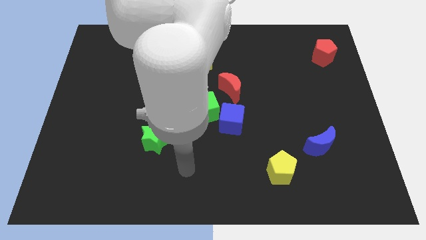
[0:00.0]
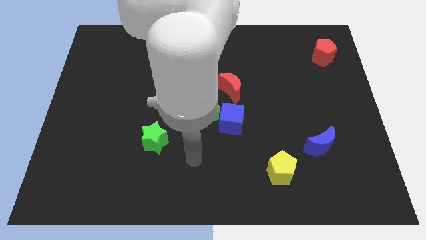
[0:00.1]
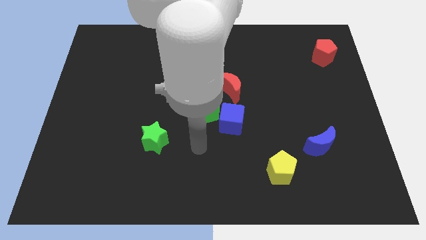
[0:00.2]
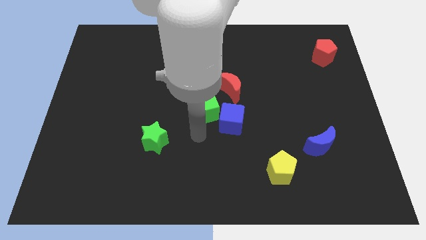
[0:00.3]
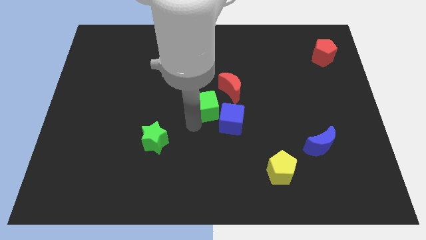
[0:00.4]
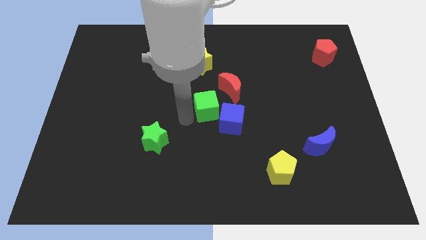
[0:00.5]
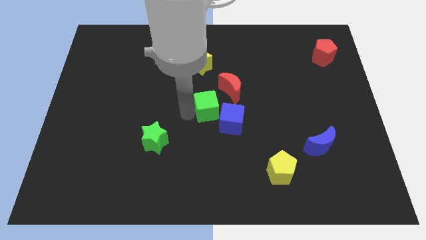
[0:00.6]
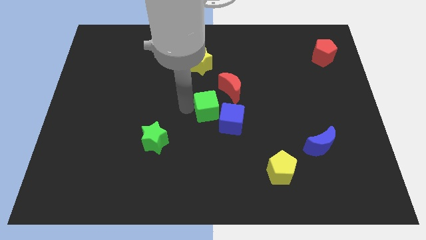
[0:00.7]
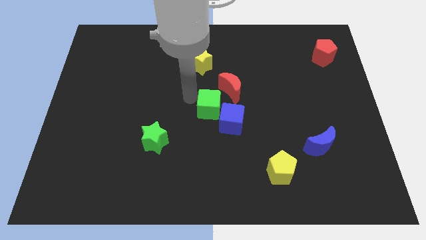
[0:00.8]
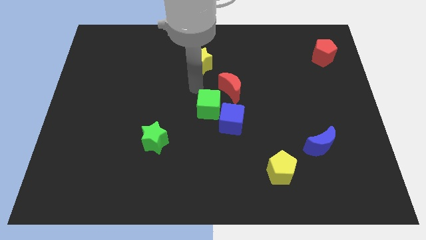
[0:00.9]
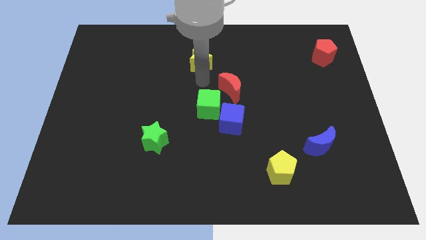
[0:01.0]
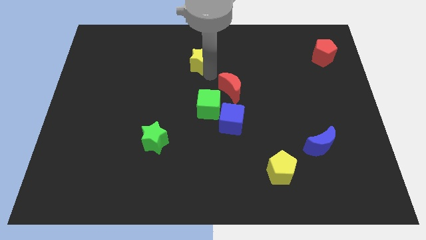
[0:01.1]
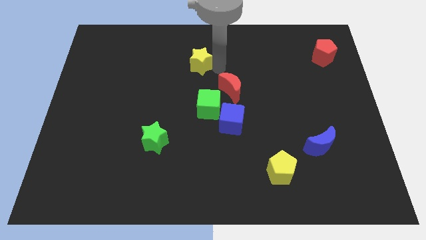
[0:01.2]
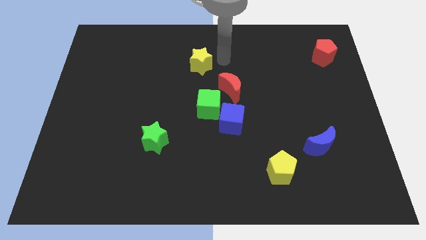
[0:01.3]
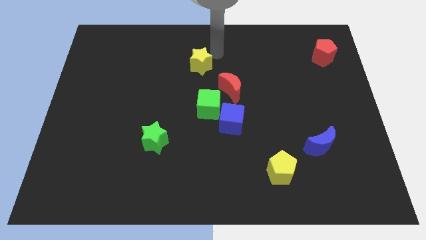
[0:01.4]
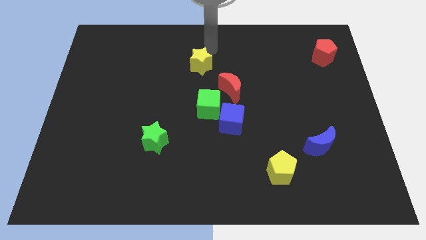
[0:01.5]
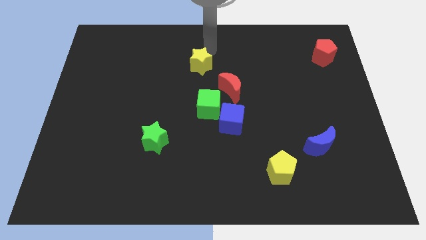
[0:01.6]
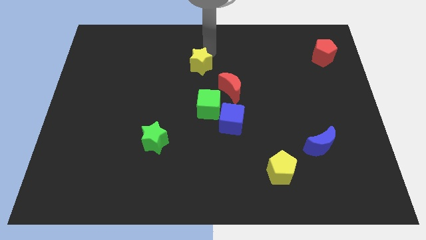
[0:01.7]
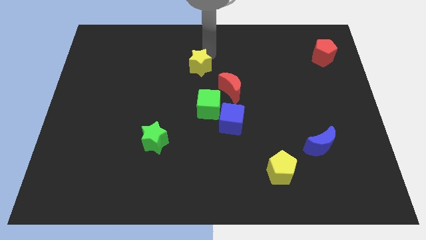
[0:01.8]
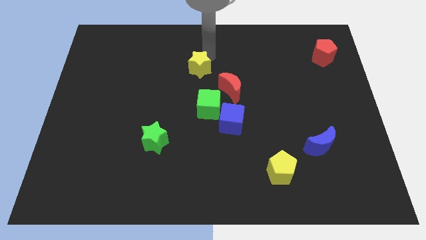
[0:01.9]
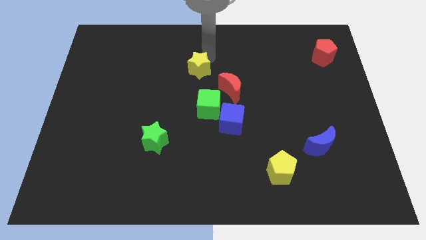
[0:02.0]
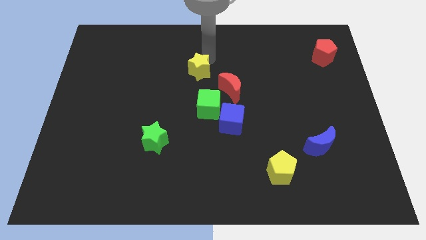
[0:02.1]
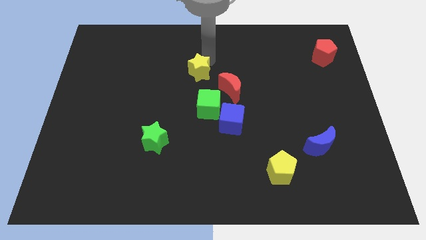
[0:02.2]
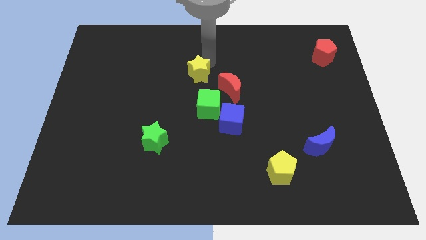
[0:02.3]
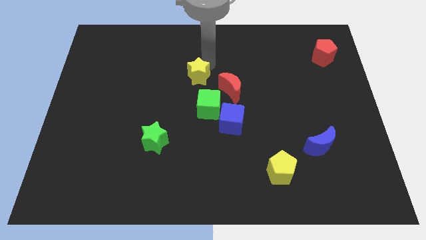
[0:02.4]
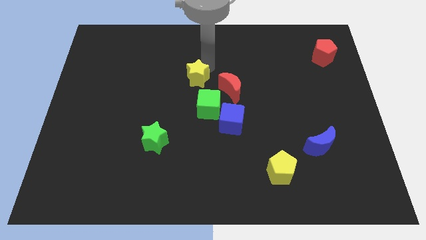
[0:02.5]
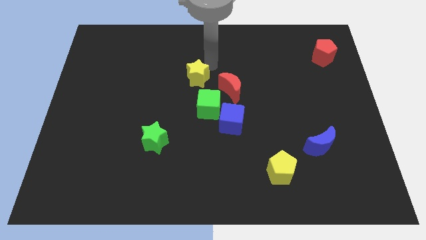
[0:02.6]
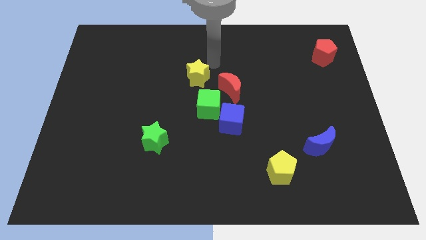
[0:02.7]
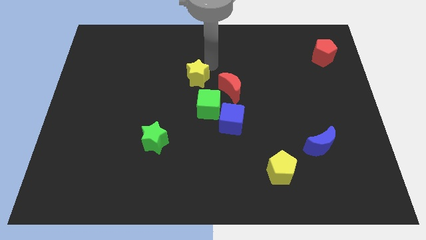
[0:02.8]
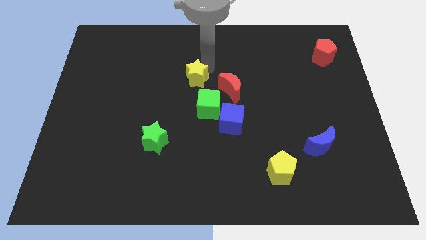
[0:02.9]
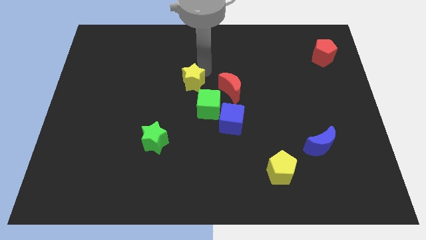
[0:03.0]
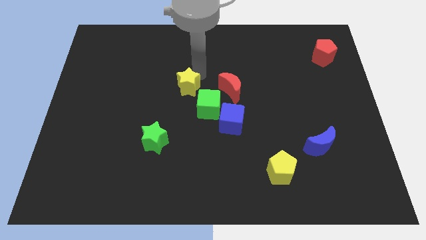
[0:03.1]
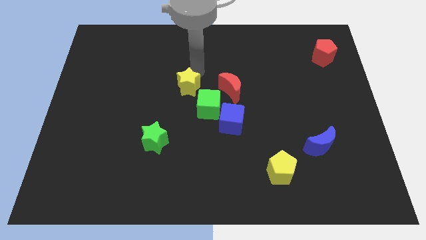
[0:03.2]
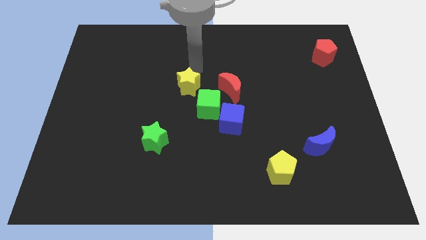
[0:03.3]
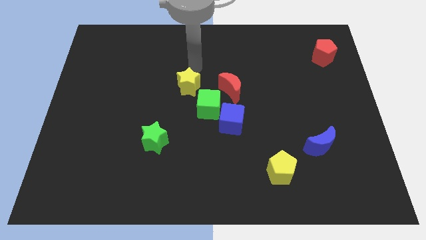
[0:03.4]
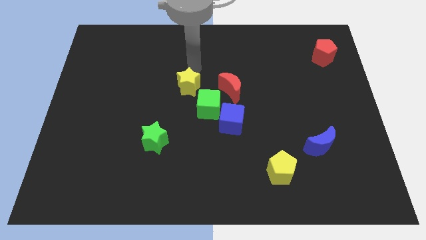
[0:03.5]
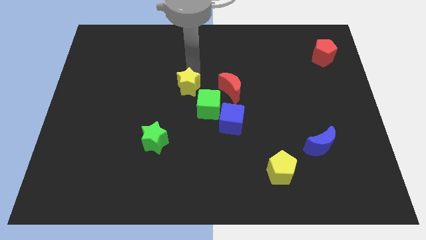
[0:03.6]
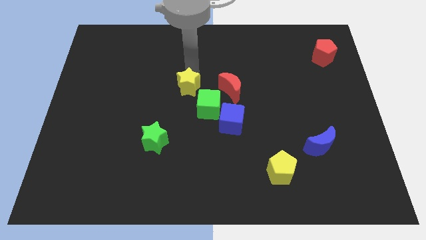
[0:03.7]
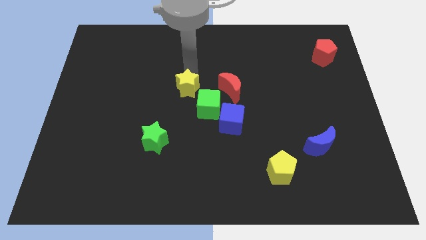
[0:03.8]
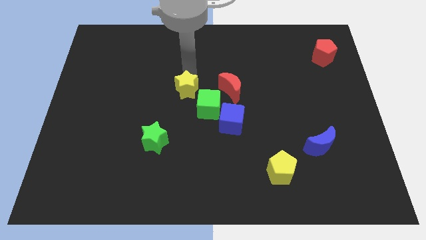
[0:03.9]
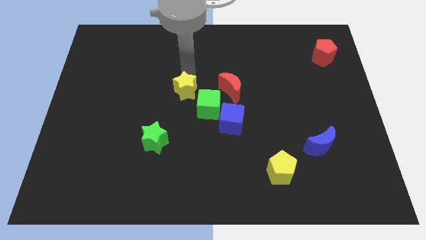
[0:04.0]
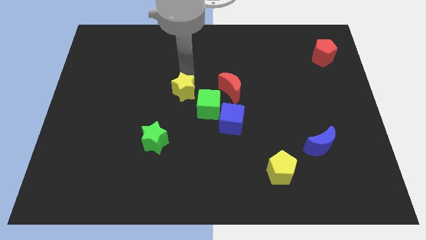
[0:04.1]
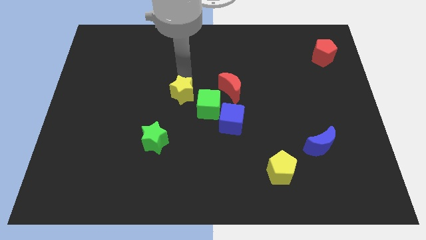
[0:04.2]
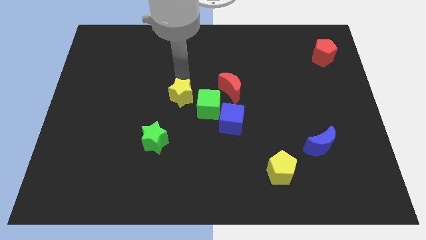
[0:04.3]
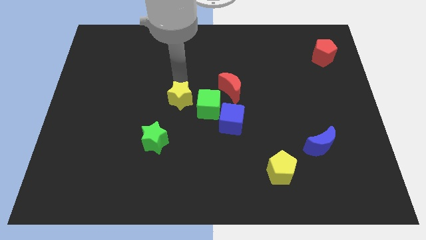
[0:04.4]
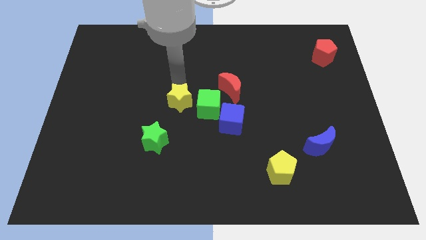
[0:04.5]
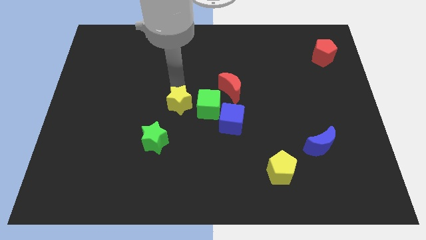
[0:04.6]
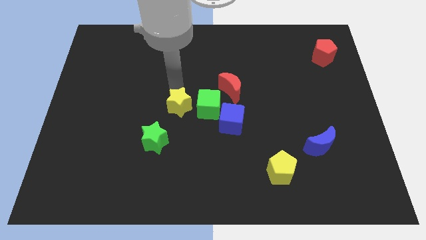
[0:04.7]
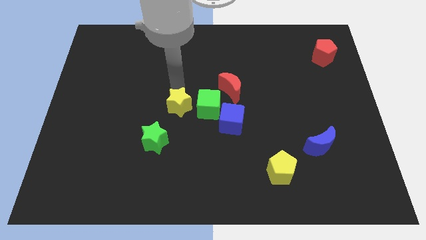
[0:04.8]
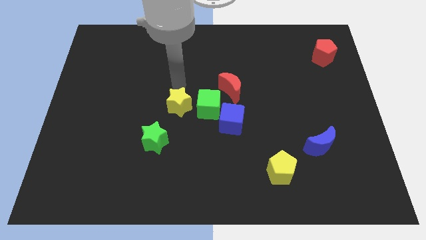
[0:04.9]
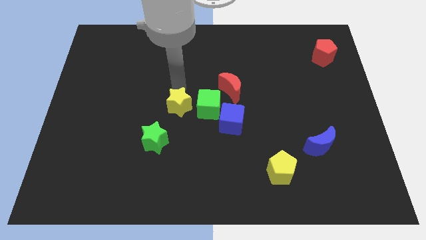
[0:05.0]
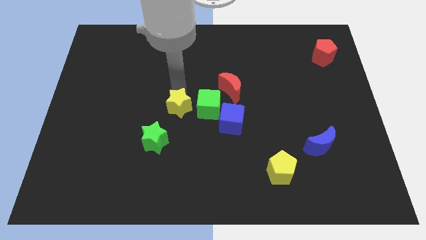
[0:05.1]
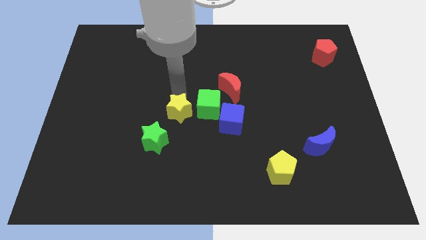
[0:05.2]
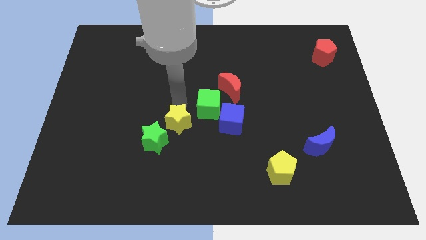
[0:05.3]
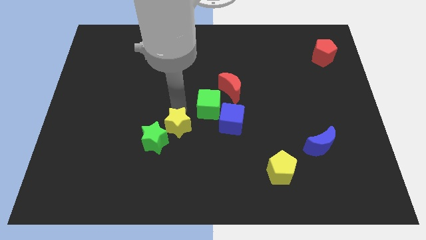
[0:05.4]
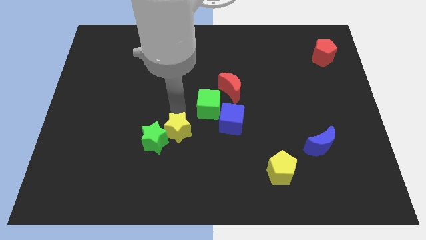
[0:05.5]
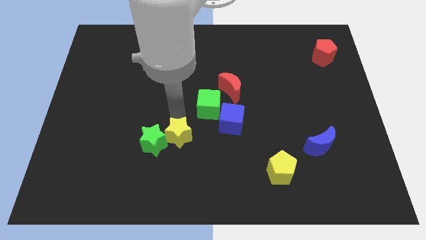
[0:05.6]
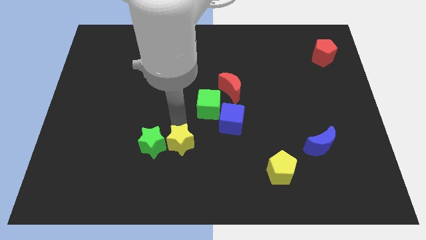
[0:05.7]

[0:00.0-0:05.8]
slide the yellow star to the bottom right of the green star

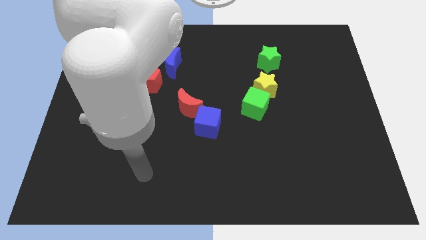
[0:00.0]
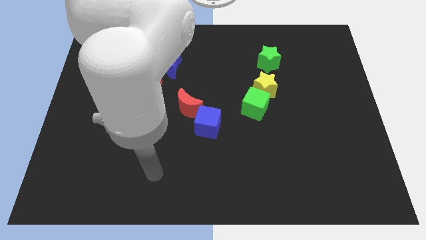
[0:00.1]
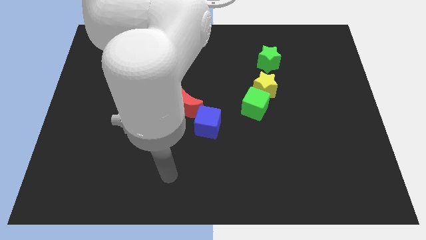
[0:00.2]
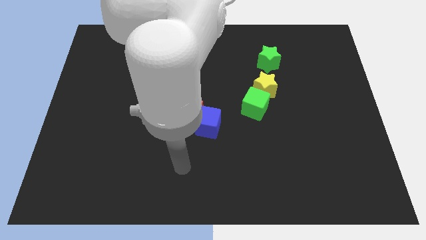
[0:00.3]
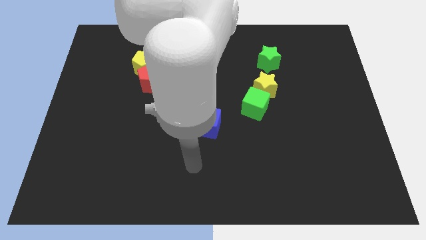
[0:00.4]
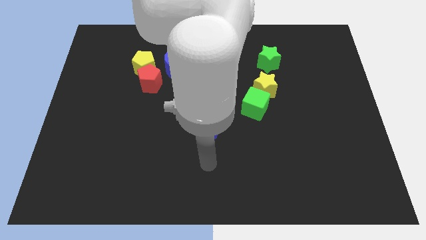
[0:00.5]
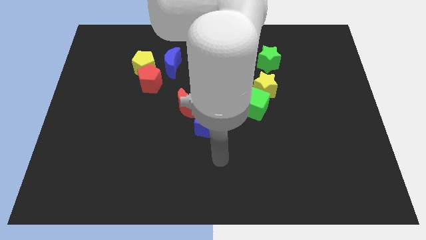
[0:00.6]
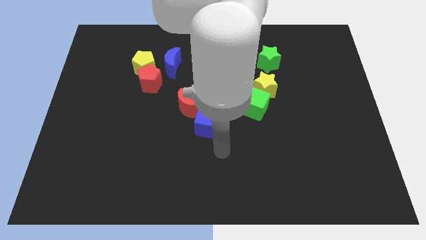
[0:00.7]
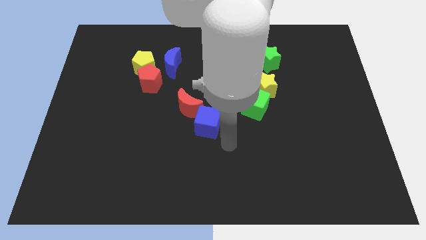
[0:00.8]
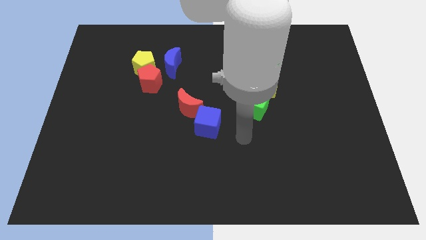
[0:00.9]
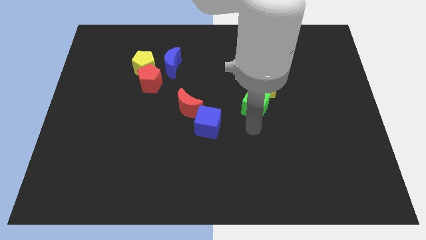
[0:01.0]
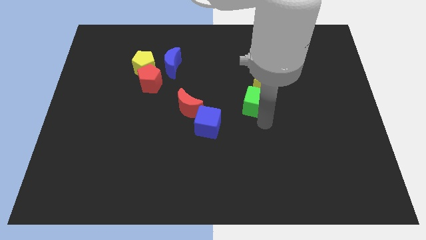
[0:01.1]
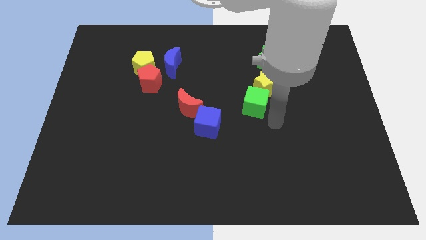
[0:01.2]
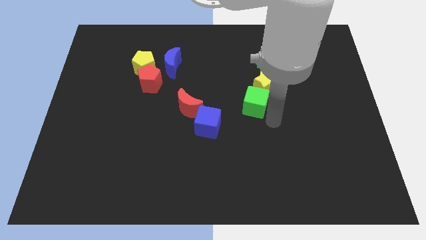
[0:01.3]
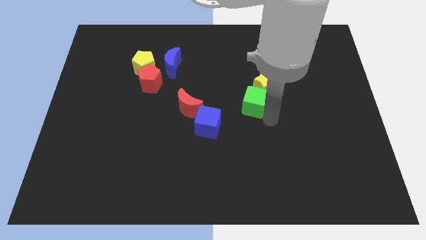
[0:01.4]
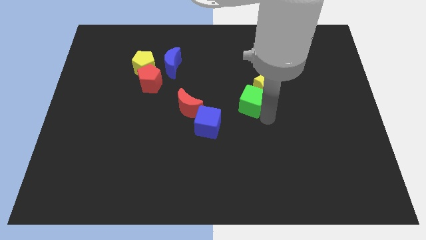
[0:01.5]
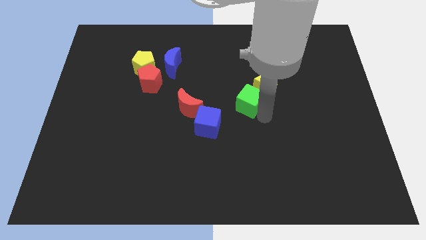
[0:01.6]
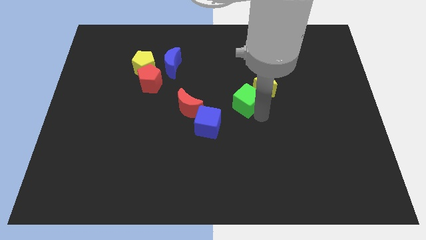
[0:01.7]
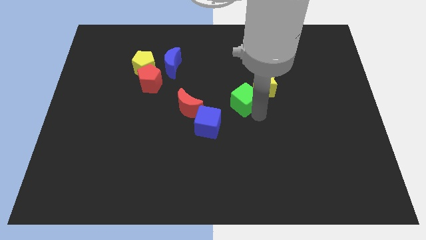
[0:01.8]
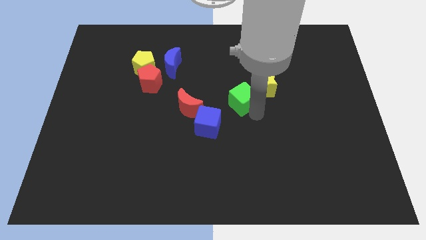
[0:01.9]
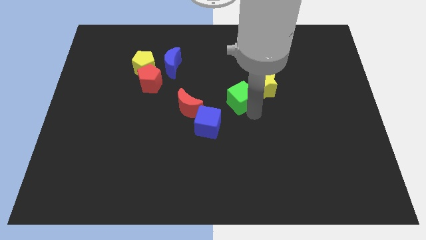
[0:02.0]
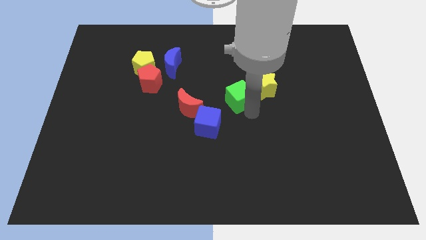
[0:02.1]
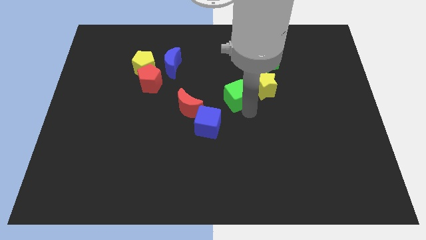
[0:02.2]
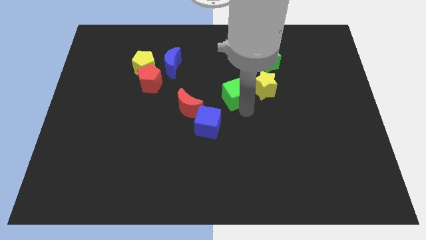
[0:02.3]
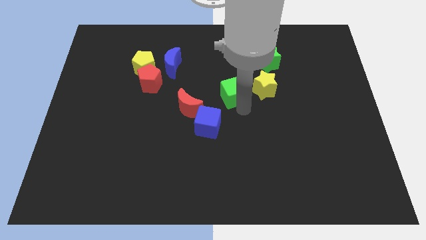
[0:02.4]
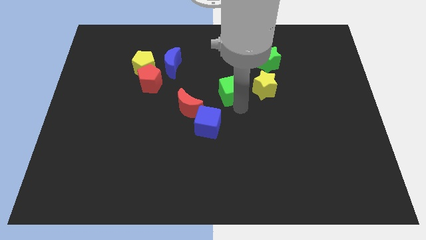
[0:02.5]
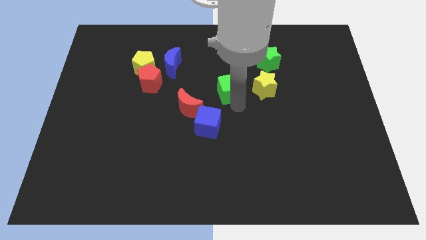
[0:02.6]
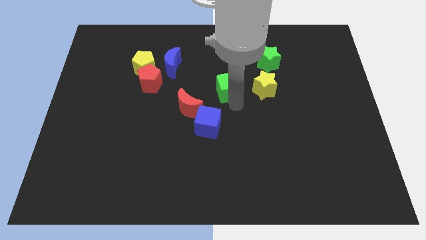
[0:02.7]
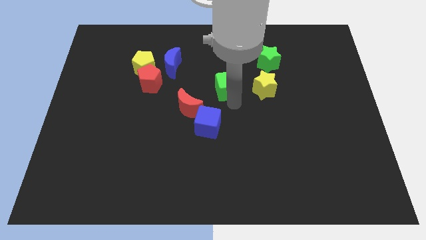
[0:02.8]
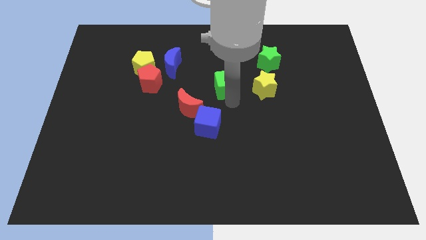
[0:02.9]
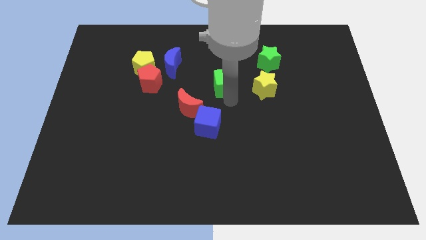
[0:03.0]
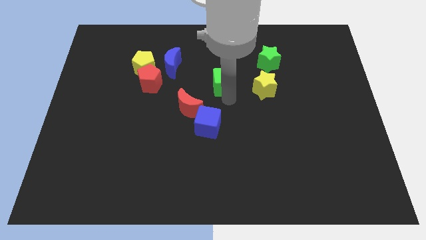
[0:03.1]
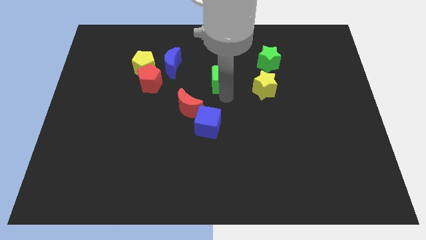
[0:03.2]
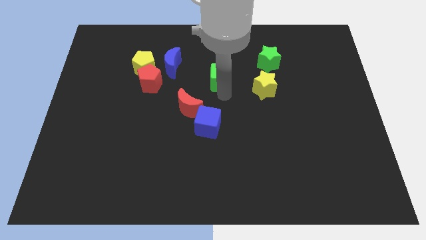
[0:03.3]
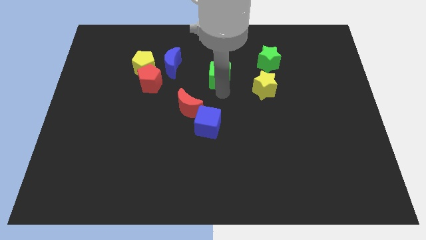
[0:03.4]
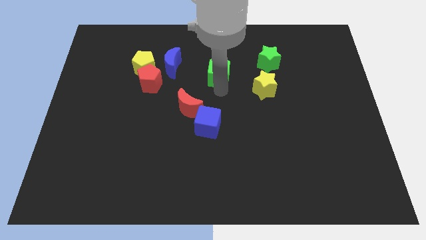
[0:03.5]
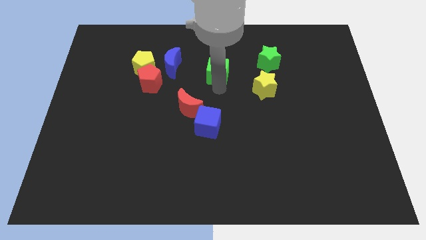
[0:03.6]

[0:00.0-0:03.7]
move the green cube just left of the green star
